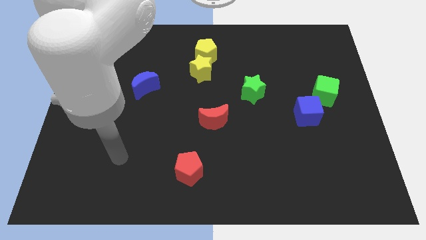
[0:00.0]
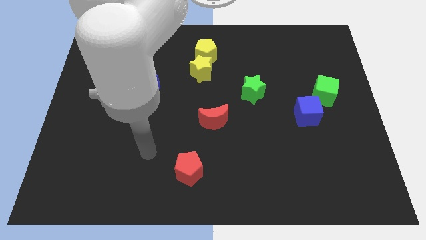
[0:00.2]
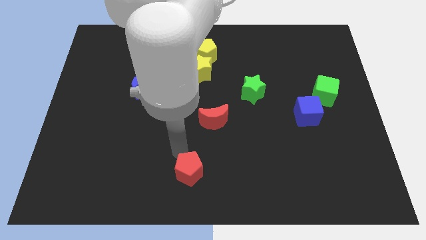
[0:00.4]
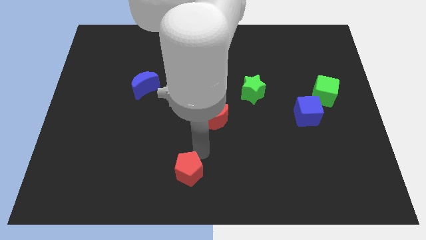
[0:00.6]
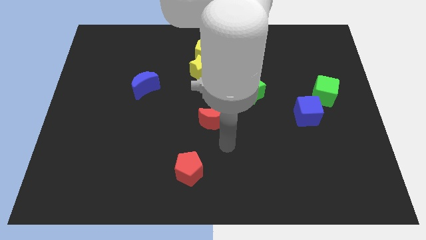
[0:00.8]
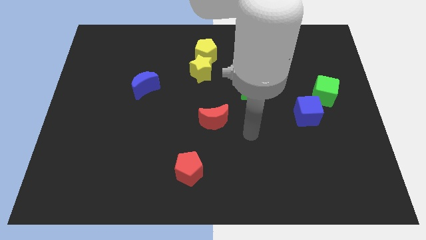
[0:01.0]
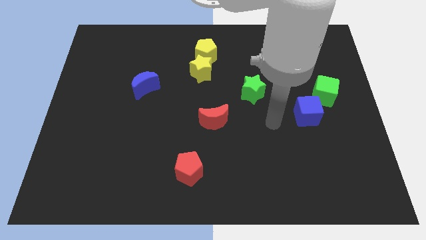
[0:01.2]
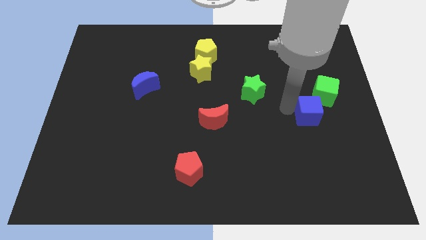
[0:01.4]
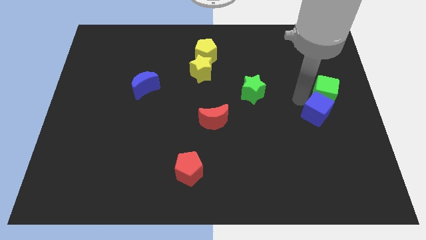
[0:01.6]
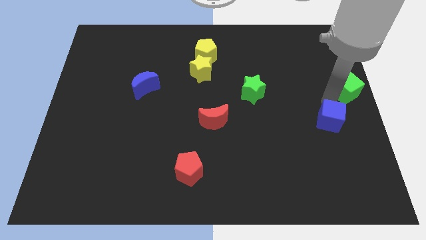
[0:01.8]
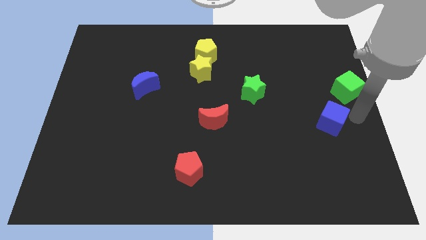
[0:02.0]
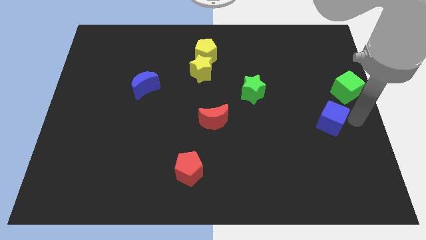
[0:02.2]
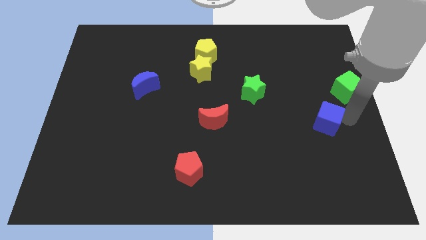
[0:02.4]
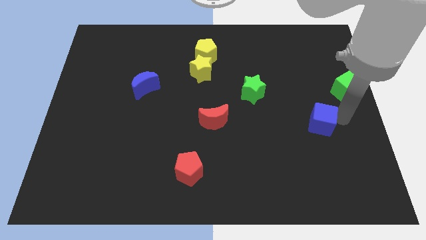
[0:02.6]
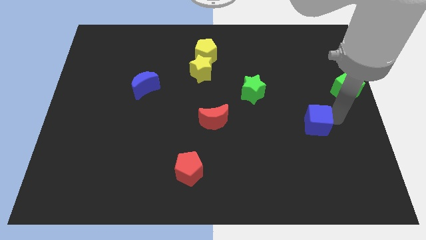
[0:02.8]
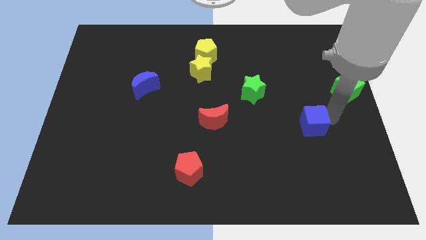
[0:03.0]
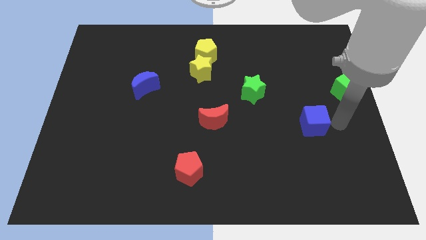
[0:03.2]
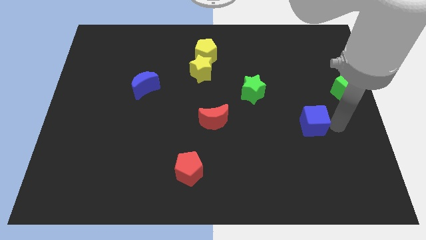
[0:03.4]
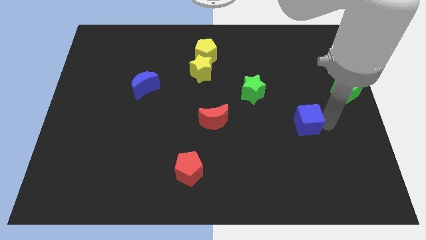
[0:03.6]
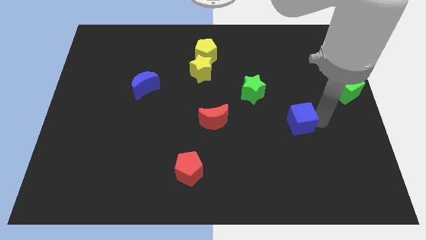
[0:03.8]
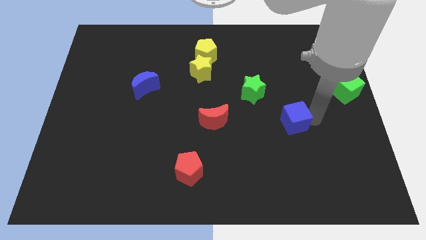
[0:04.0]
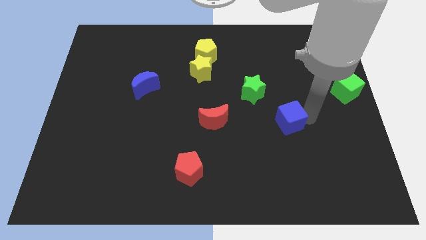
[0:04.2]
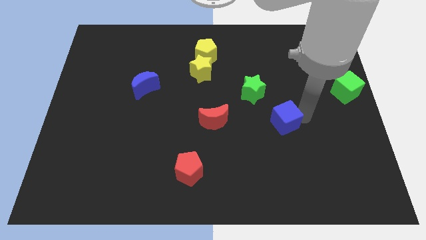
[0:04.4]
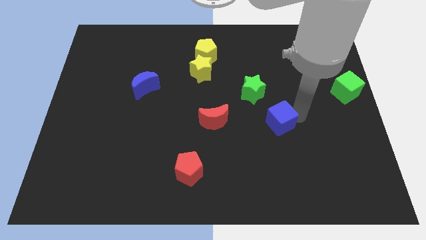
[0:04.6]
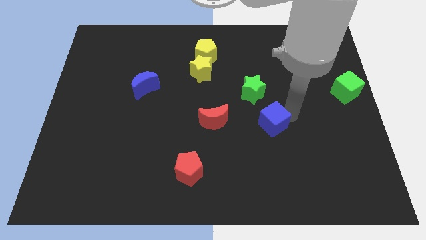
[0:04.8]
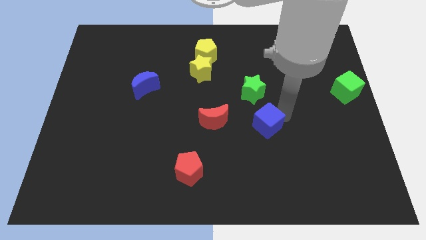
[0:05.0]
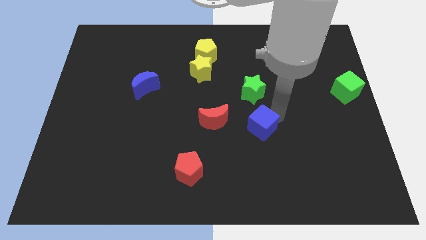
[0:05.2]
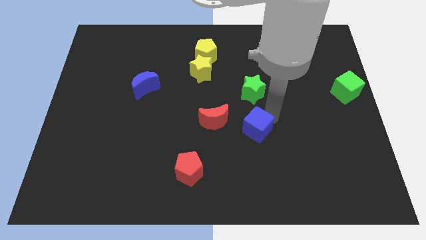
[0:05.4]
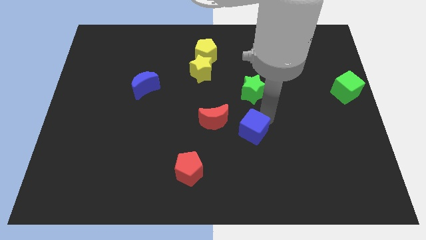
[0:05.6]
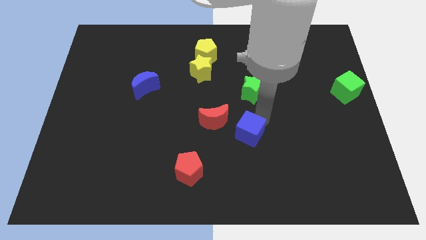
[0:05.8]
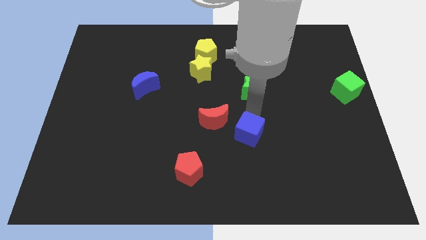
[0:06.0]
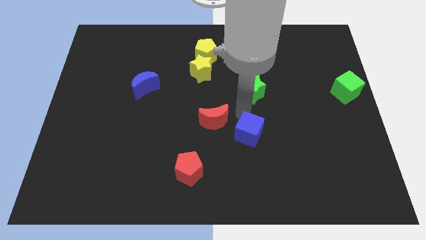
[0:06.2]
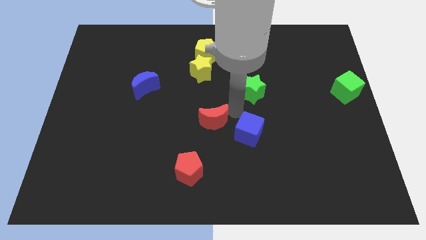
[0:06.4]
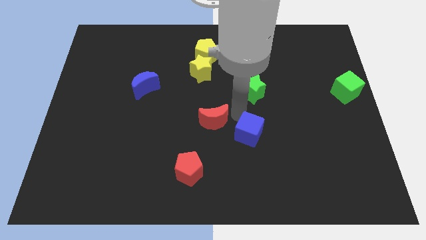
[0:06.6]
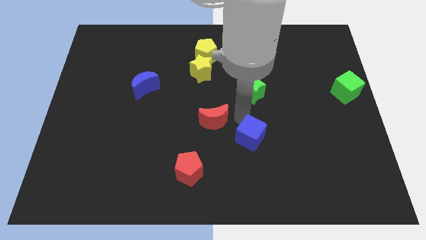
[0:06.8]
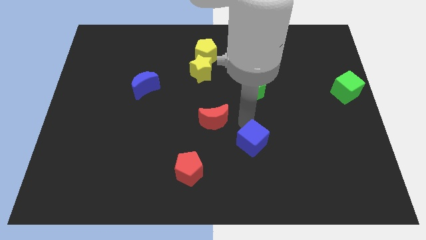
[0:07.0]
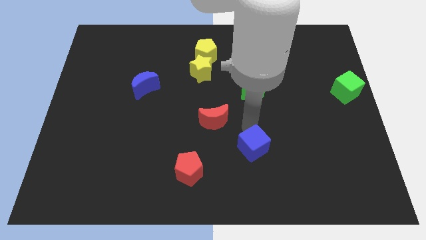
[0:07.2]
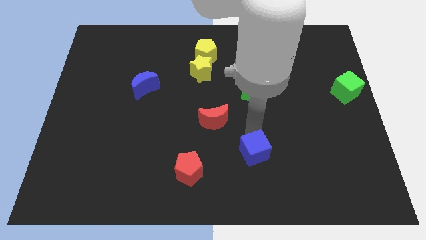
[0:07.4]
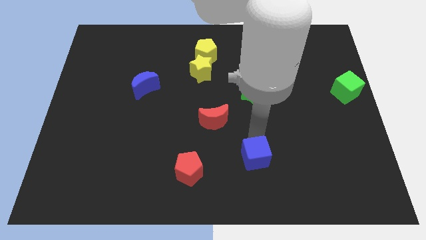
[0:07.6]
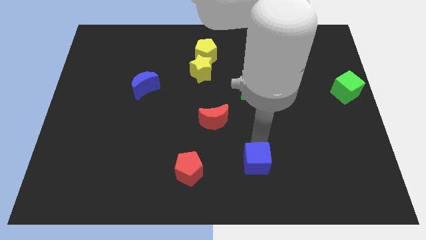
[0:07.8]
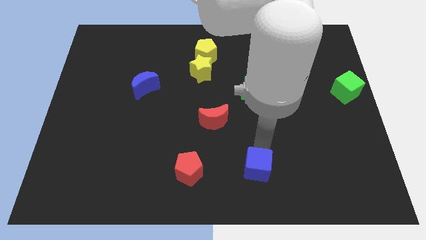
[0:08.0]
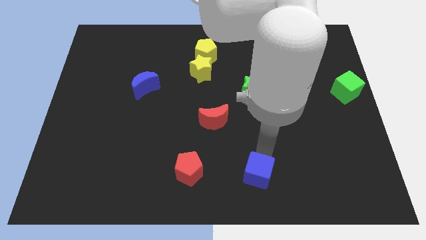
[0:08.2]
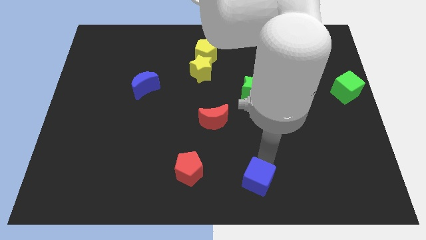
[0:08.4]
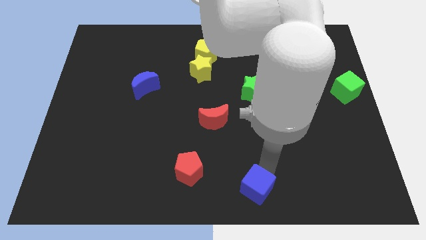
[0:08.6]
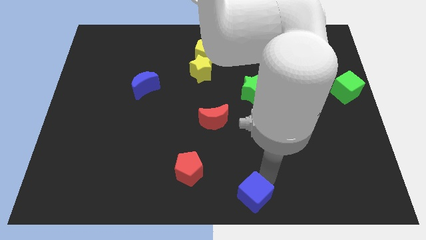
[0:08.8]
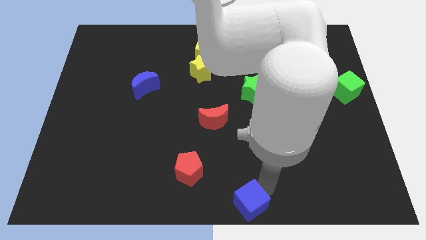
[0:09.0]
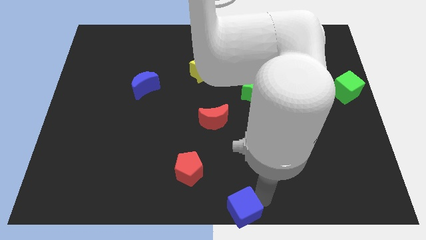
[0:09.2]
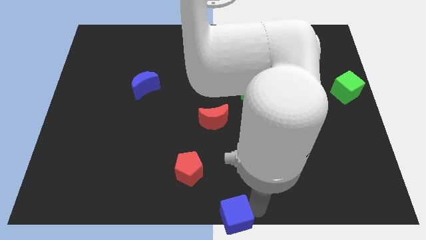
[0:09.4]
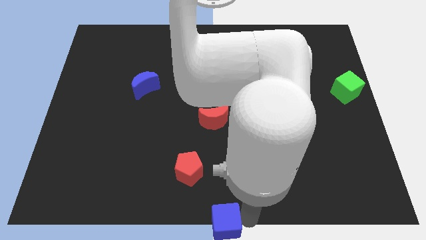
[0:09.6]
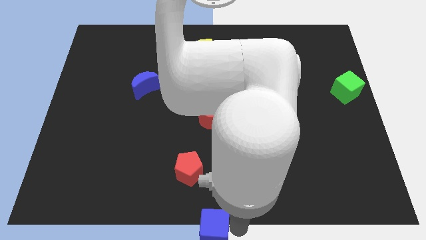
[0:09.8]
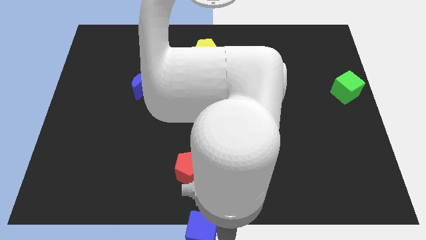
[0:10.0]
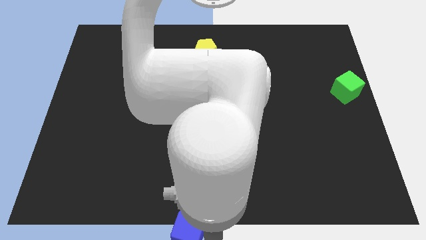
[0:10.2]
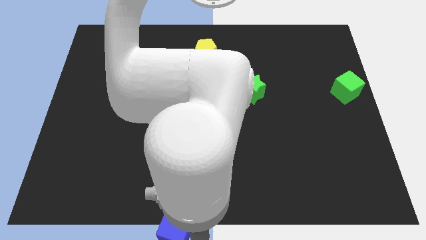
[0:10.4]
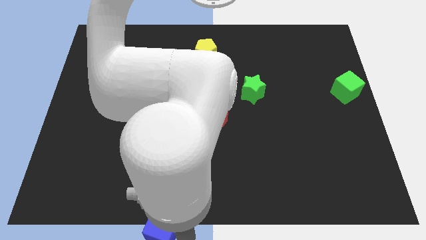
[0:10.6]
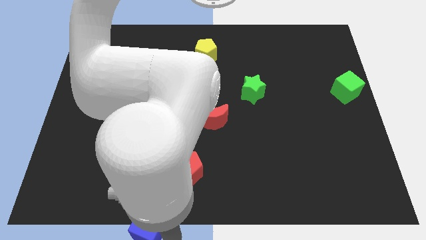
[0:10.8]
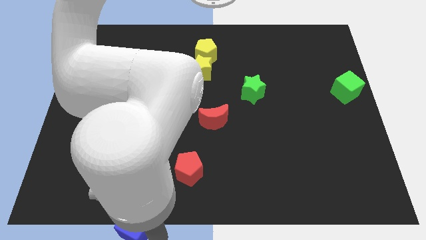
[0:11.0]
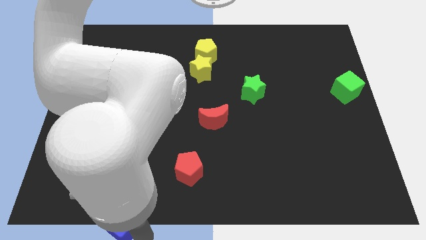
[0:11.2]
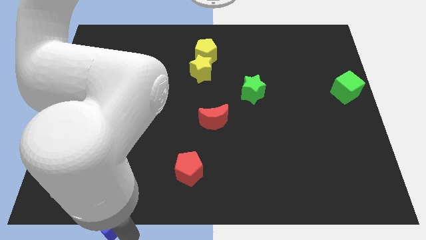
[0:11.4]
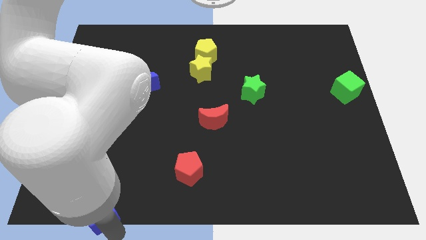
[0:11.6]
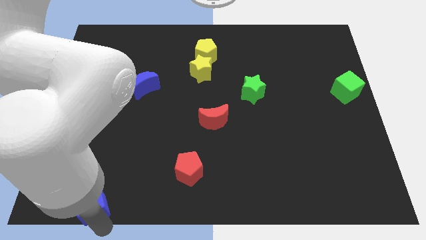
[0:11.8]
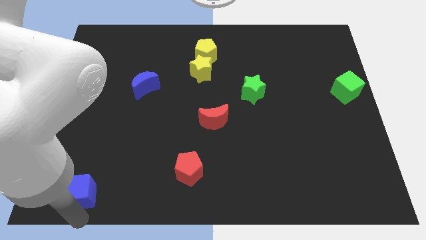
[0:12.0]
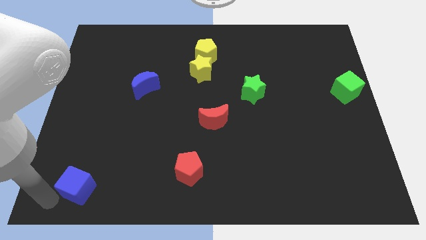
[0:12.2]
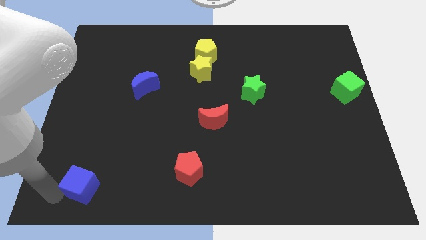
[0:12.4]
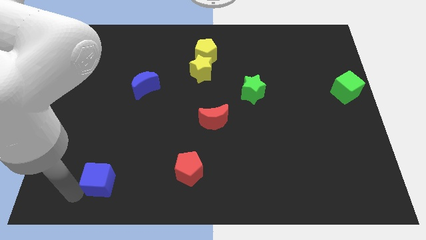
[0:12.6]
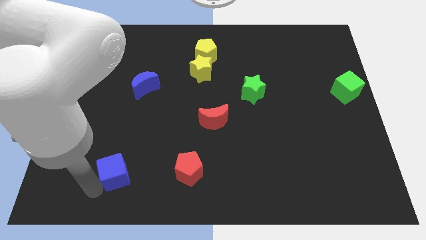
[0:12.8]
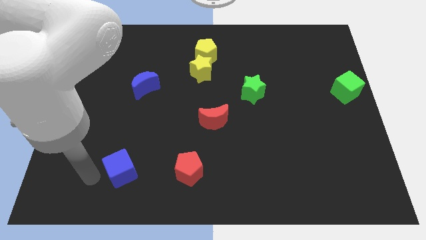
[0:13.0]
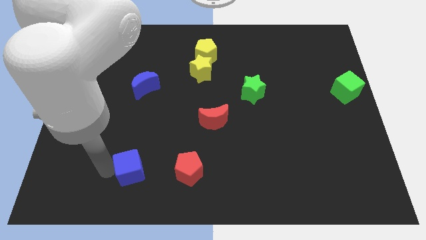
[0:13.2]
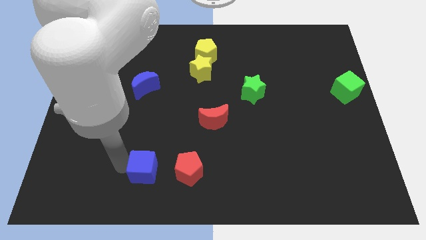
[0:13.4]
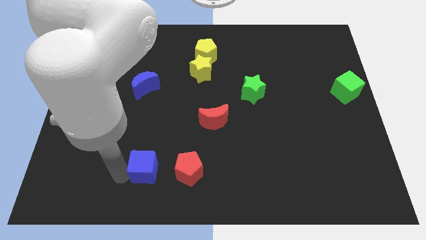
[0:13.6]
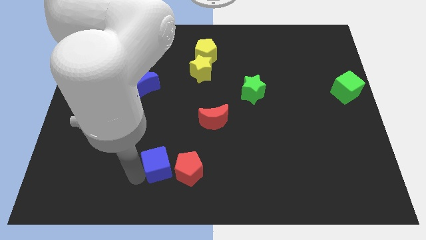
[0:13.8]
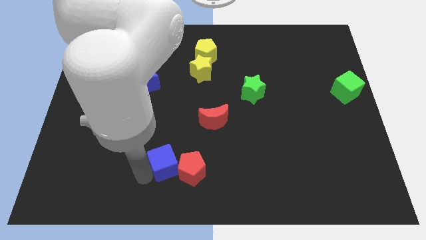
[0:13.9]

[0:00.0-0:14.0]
slide the blue cube next to the red pentagon
